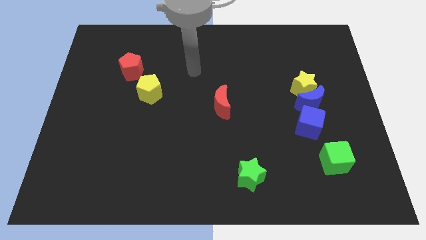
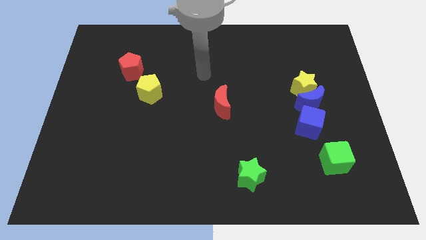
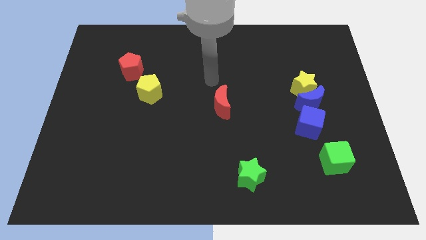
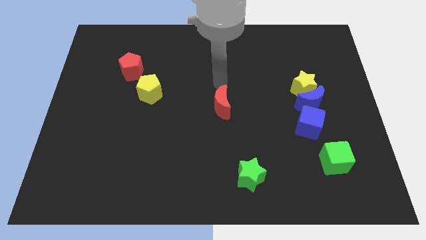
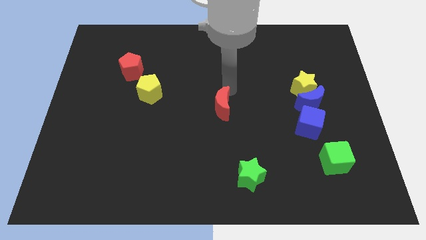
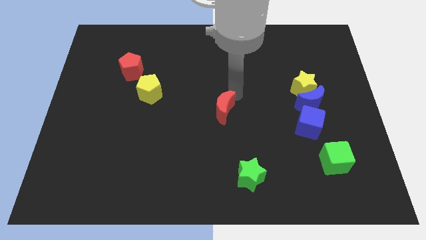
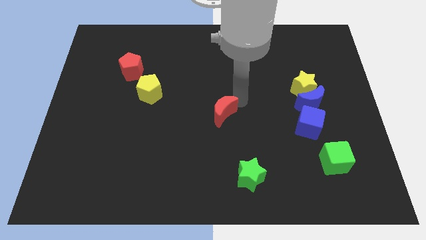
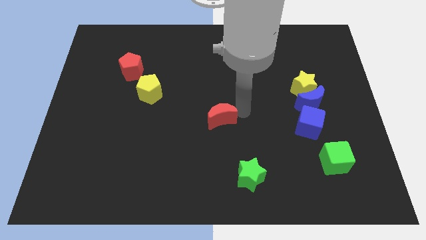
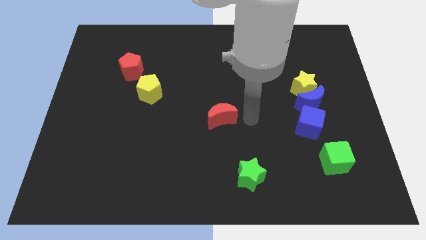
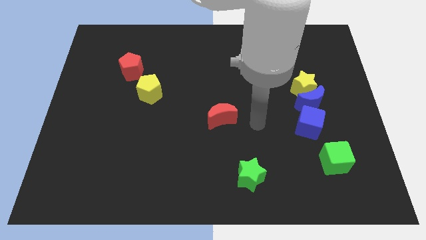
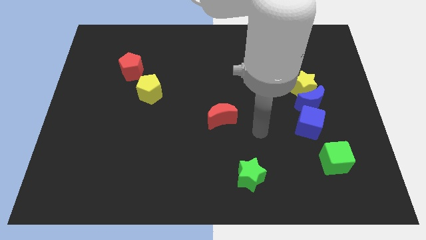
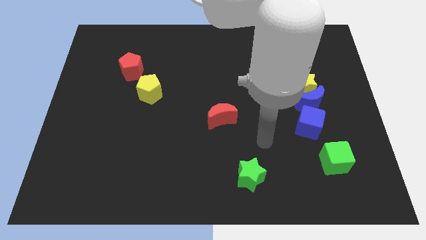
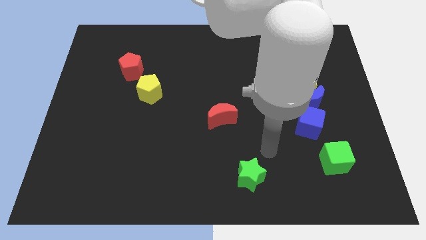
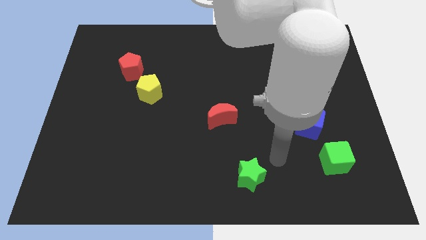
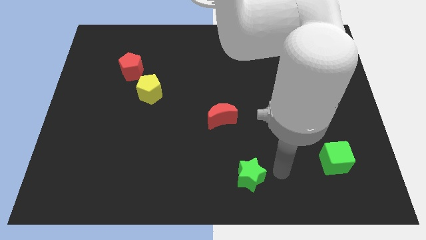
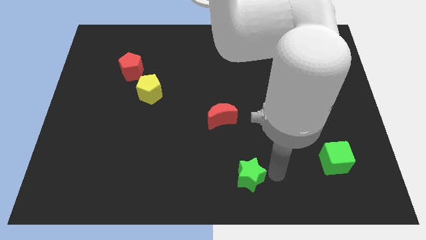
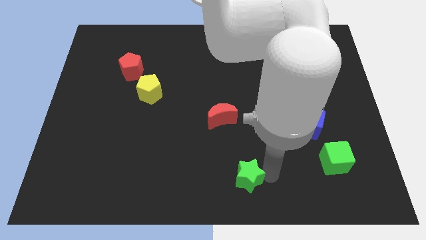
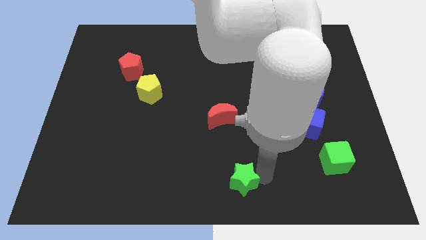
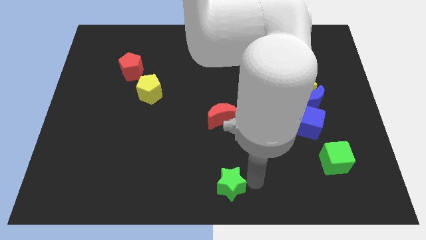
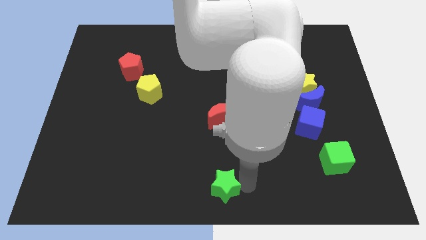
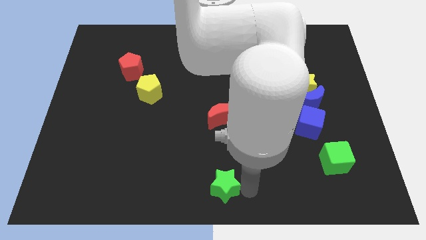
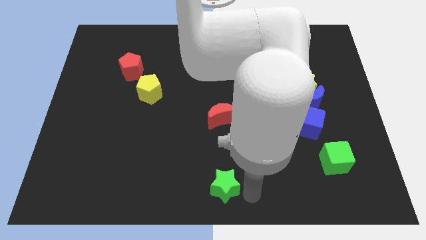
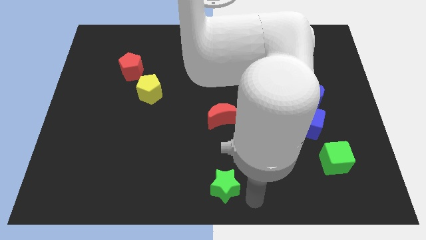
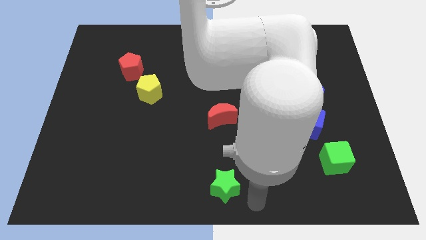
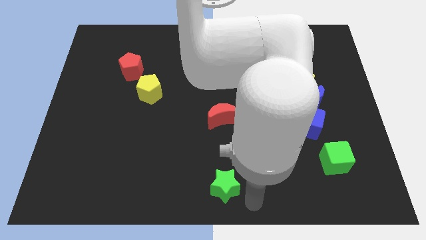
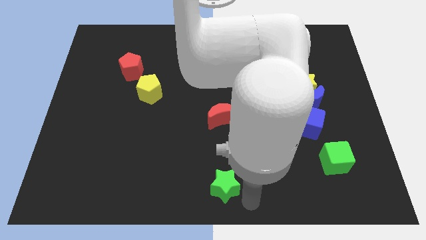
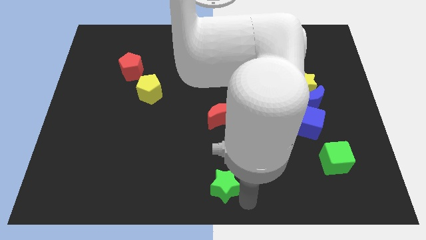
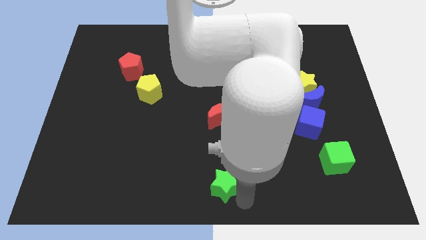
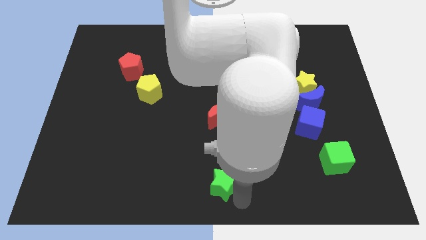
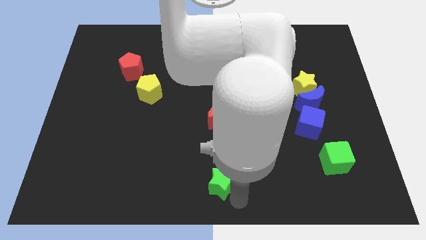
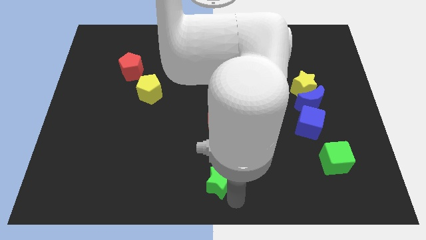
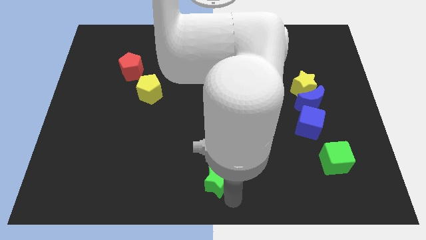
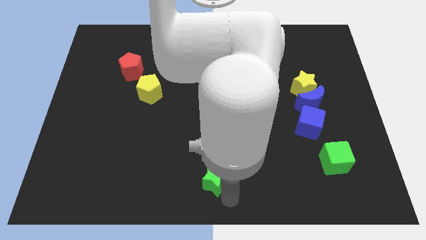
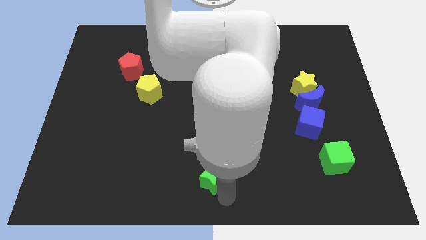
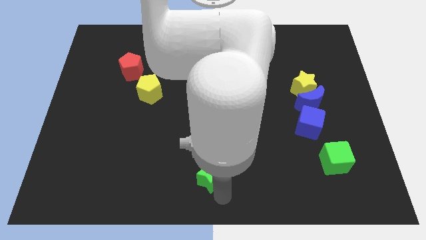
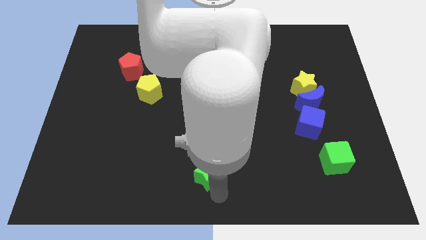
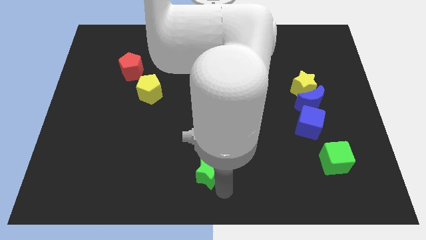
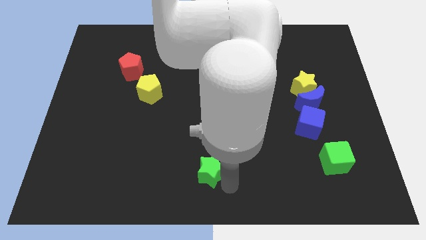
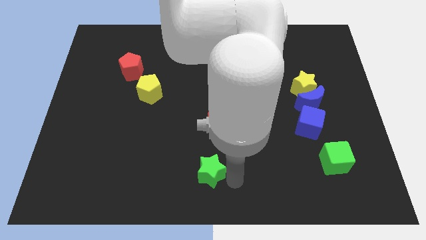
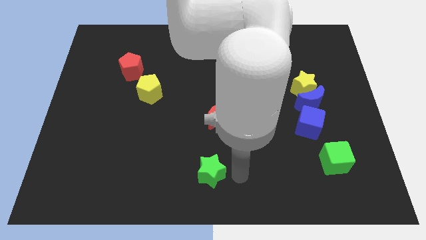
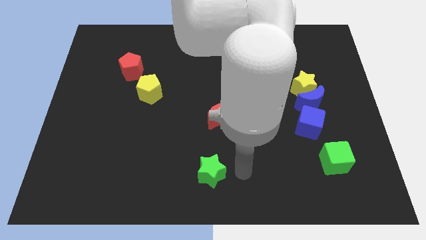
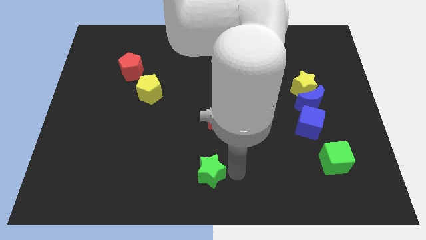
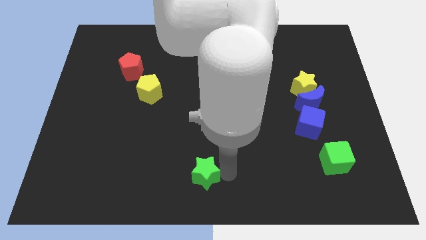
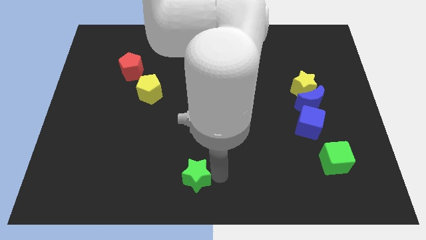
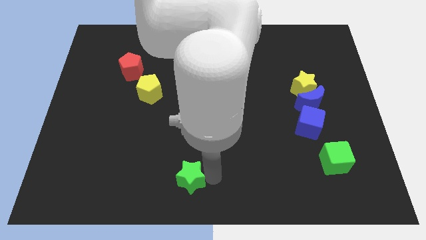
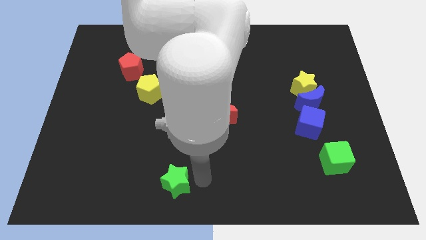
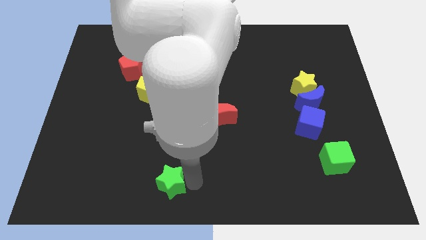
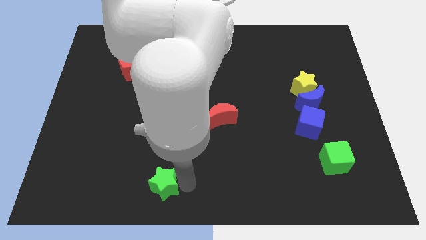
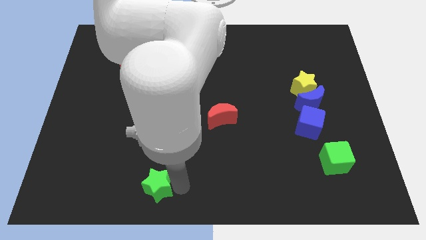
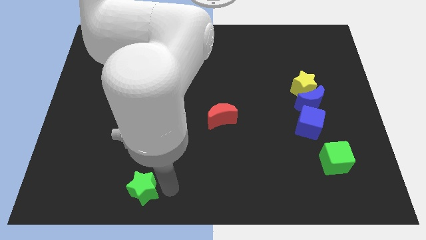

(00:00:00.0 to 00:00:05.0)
move the green star left

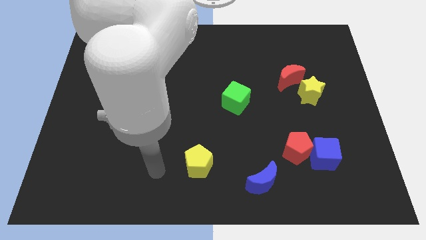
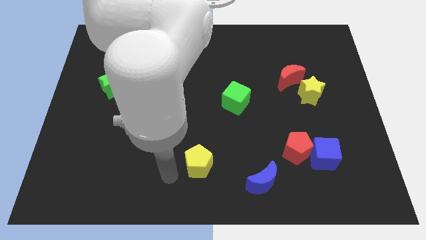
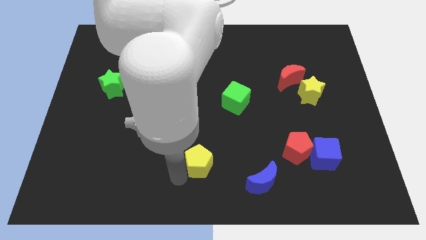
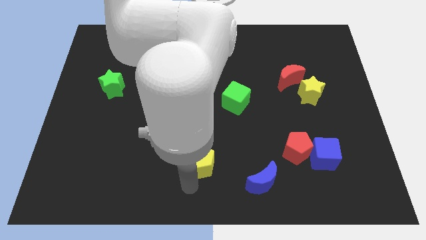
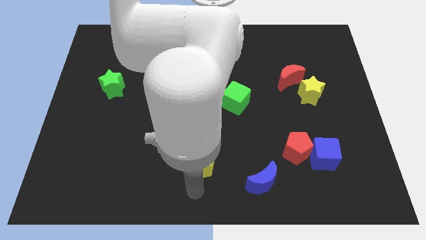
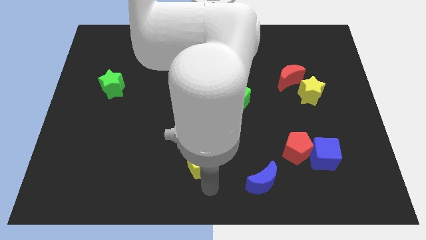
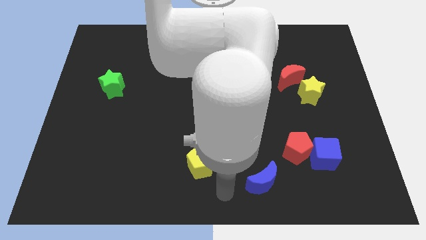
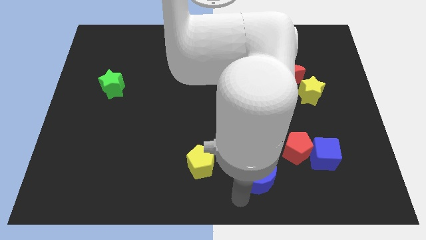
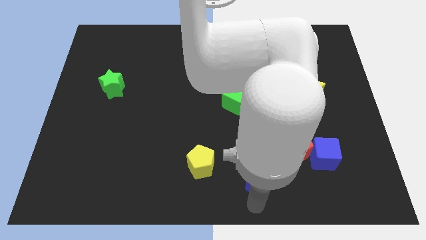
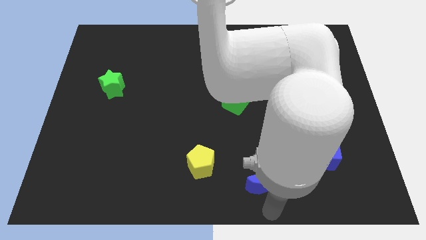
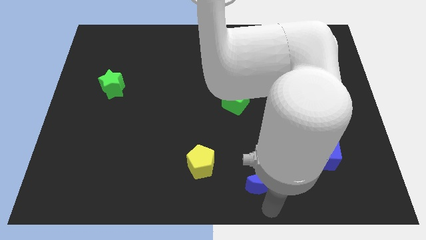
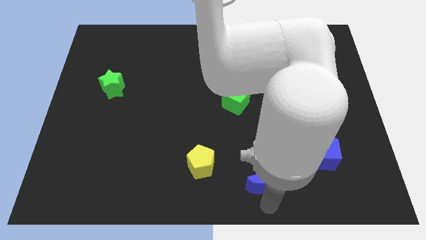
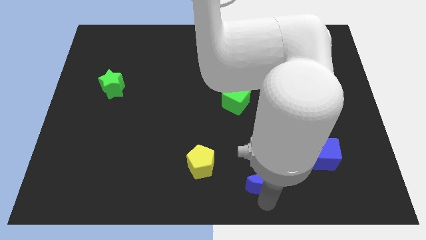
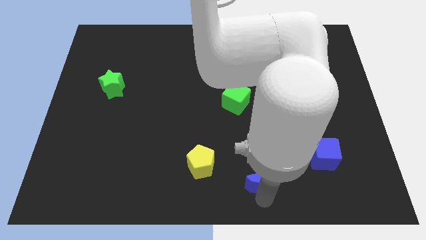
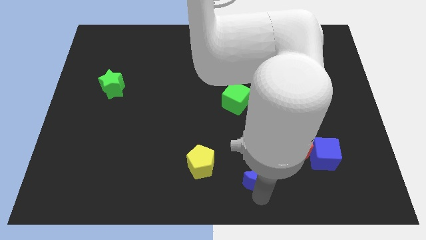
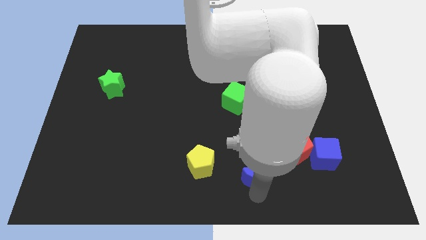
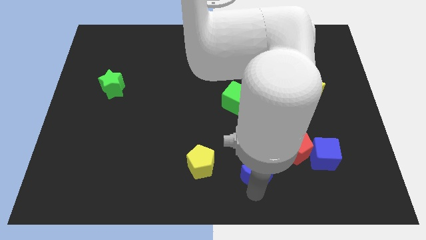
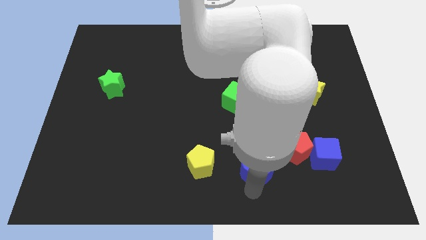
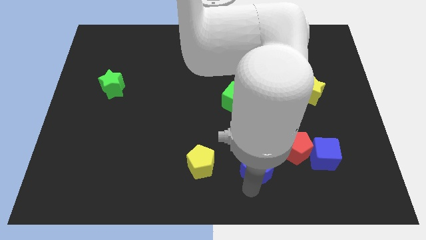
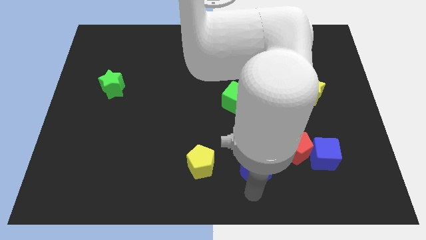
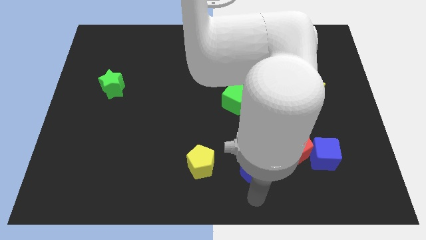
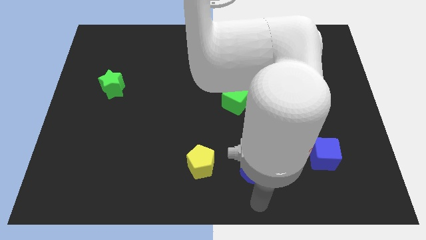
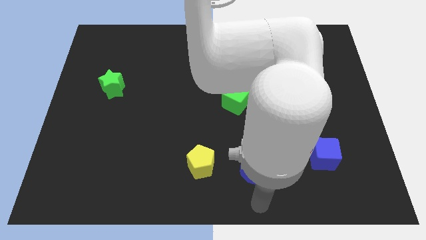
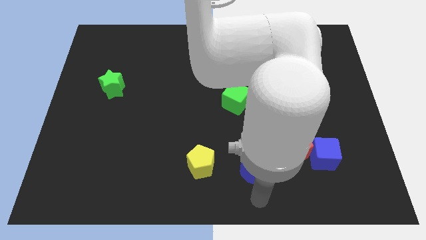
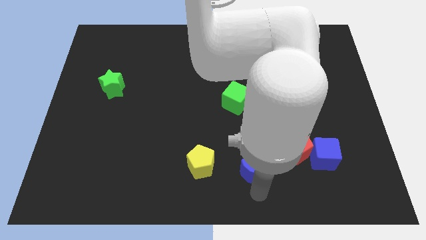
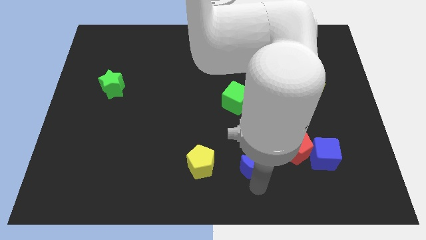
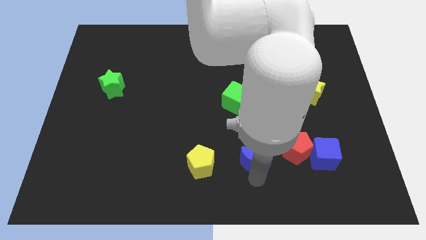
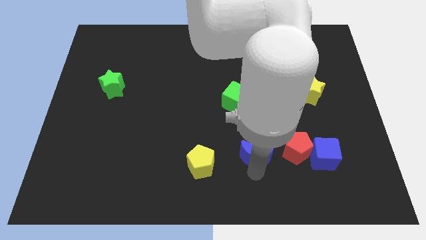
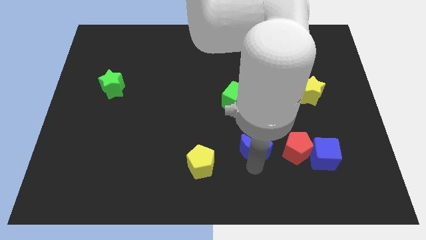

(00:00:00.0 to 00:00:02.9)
move the blue moon a little upwards

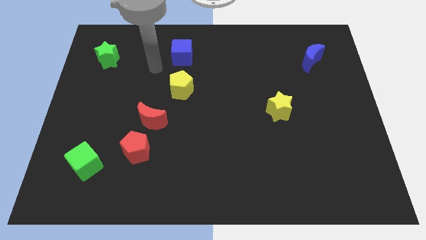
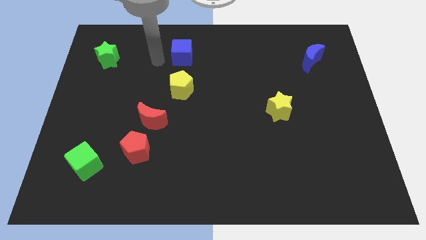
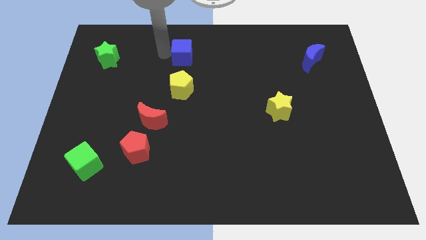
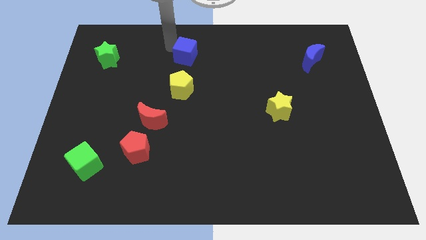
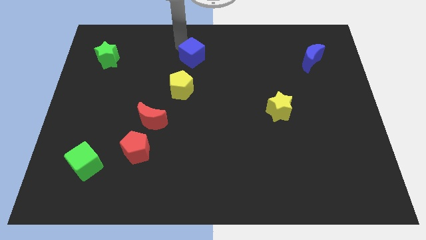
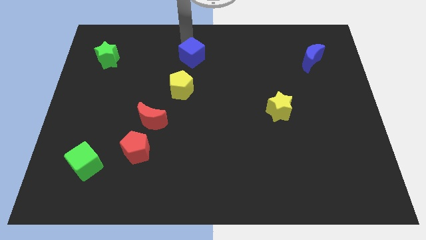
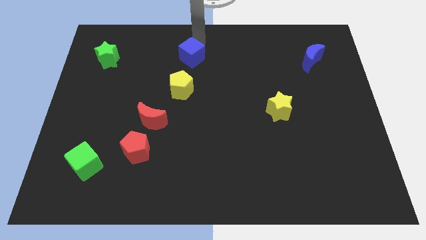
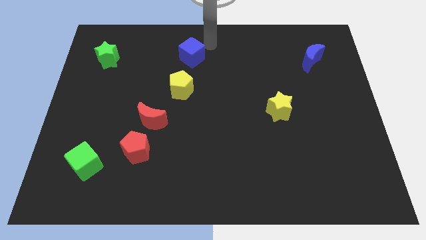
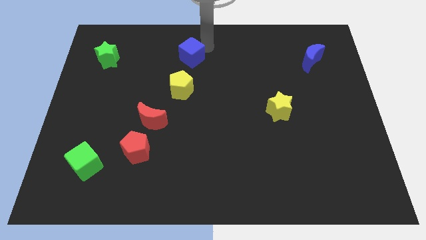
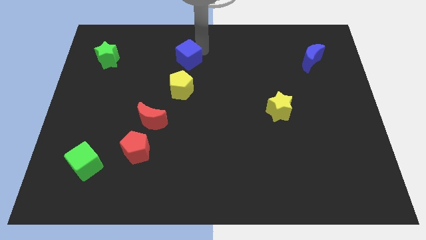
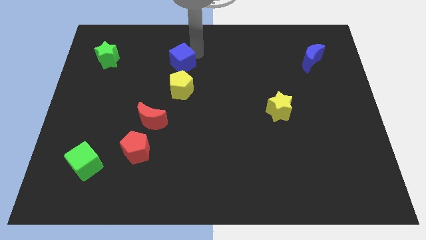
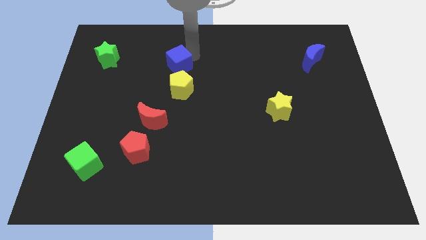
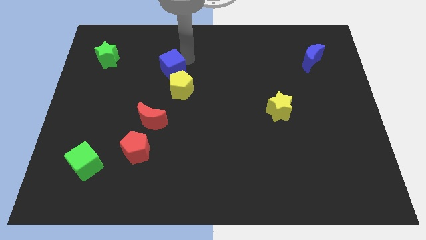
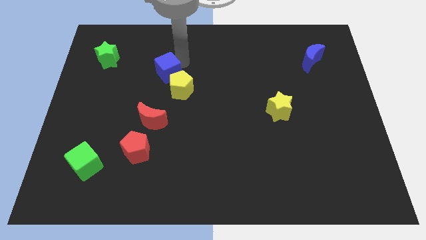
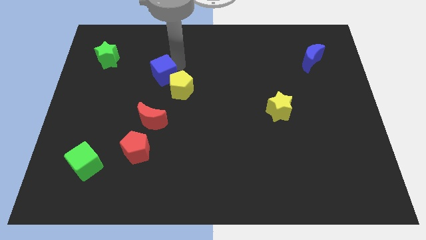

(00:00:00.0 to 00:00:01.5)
slightly slide the blue cube diagonally down and to the left
